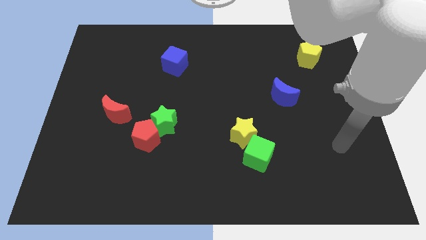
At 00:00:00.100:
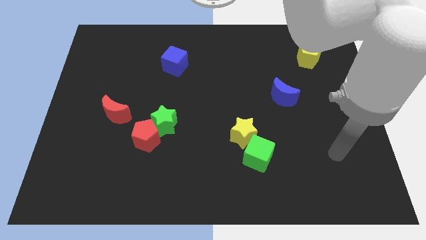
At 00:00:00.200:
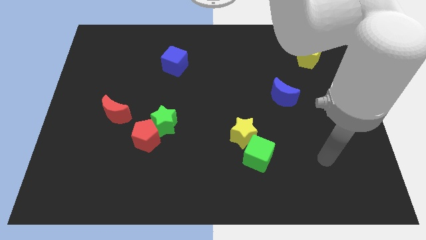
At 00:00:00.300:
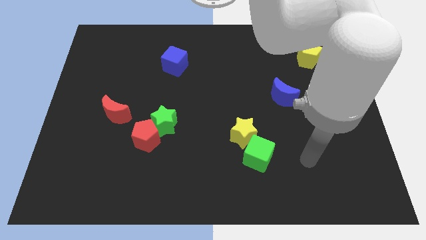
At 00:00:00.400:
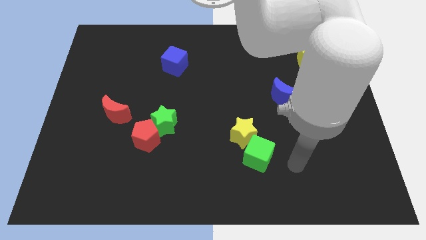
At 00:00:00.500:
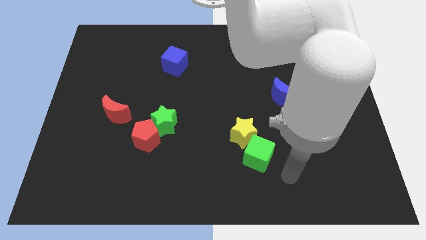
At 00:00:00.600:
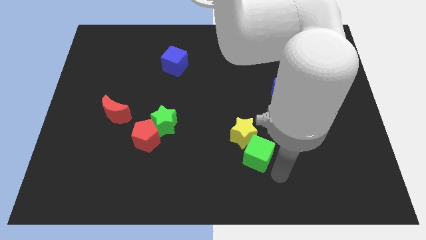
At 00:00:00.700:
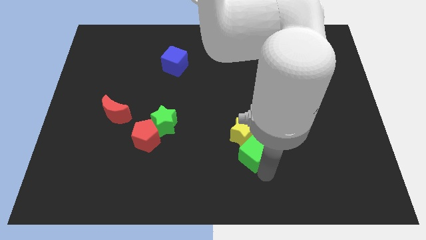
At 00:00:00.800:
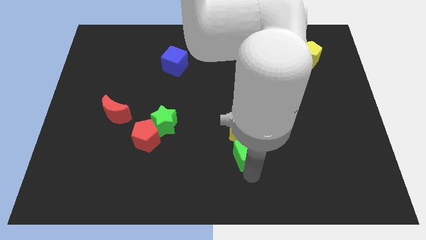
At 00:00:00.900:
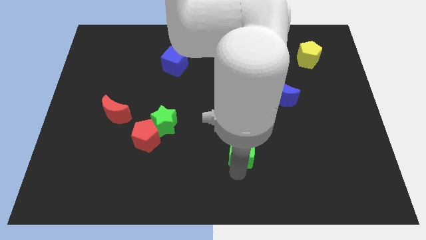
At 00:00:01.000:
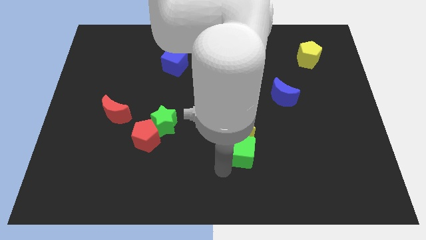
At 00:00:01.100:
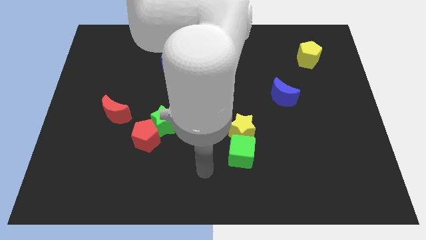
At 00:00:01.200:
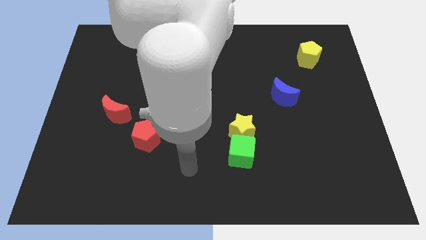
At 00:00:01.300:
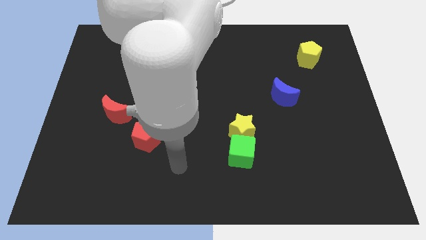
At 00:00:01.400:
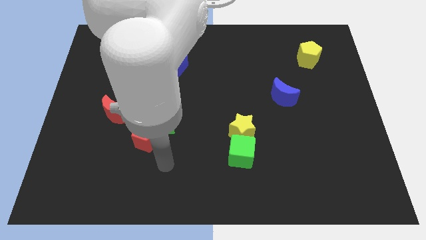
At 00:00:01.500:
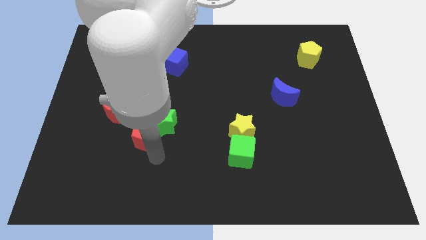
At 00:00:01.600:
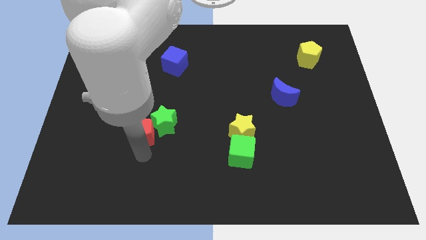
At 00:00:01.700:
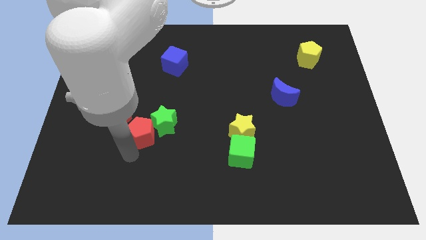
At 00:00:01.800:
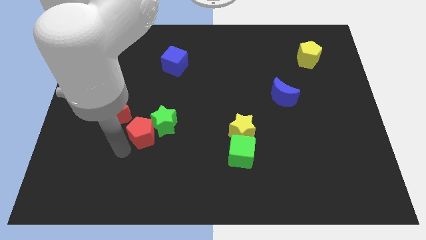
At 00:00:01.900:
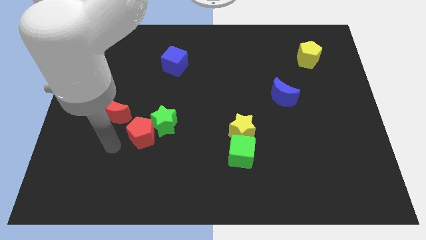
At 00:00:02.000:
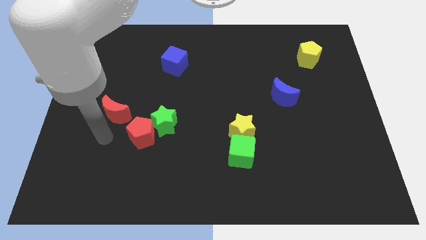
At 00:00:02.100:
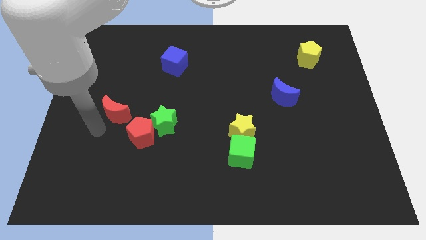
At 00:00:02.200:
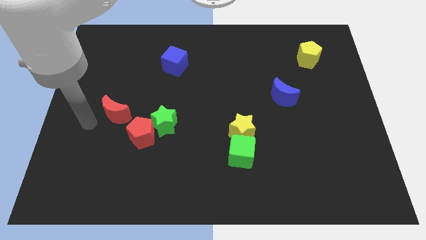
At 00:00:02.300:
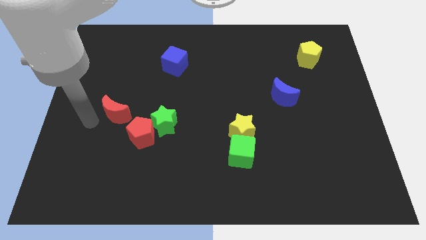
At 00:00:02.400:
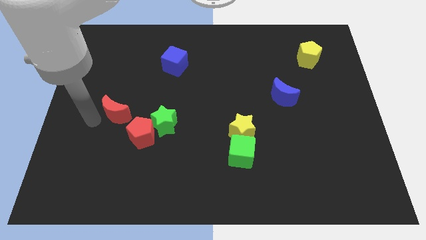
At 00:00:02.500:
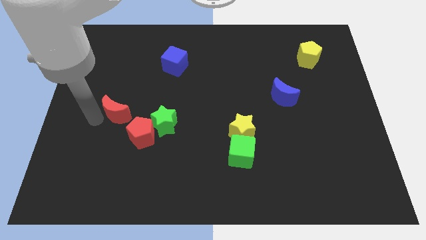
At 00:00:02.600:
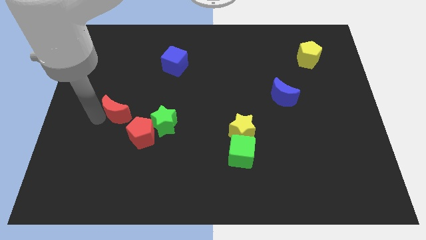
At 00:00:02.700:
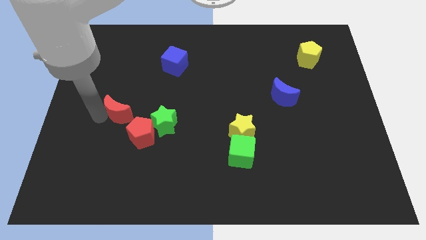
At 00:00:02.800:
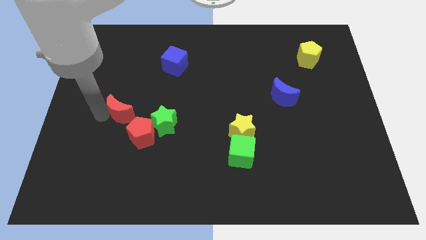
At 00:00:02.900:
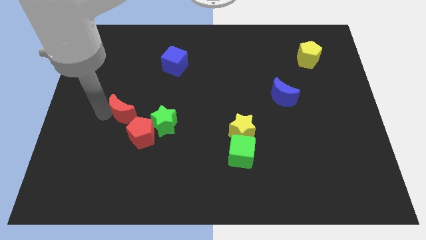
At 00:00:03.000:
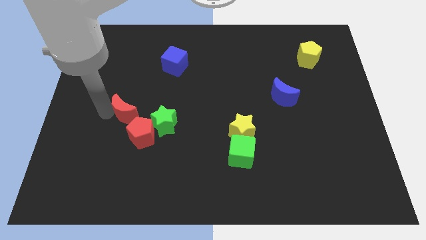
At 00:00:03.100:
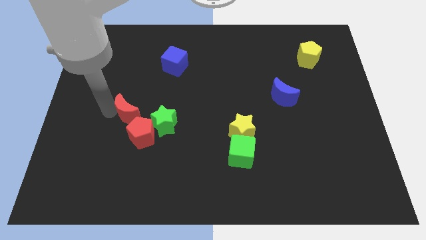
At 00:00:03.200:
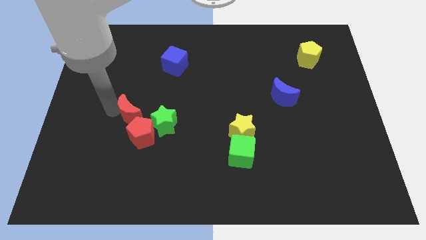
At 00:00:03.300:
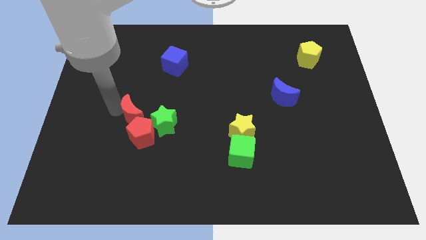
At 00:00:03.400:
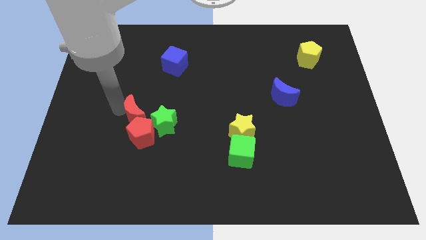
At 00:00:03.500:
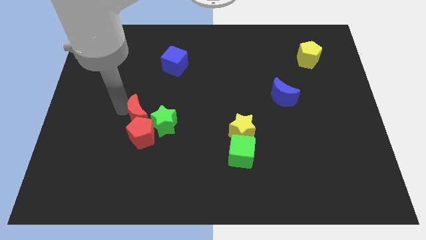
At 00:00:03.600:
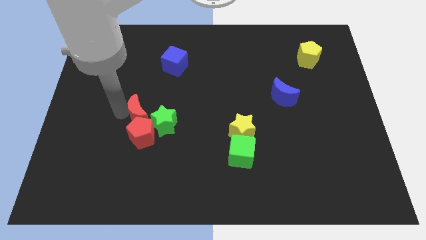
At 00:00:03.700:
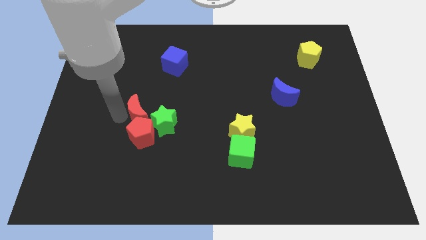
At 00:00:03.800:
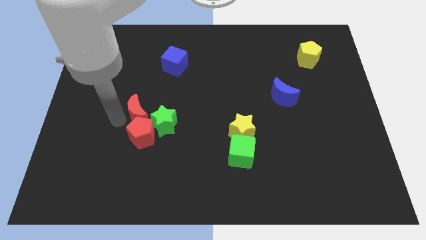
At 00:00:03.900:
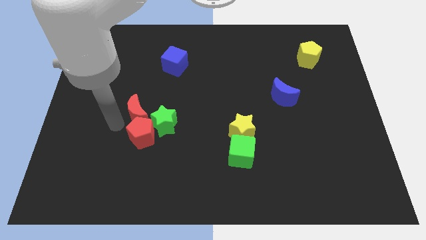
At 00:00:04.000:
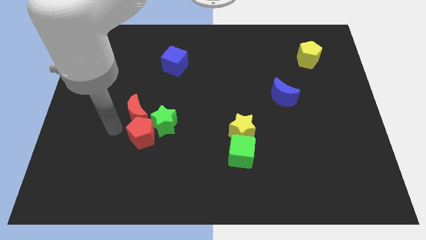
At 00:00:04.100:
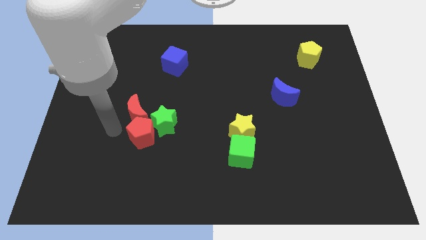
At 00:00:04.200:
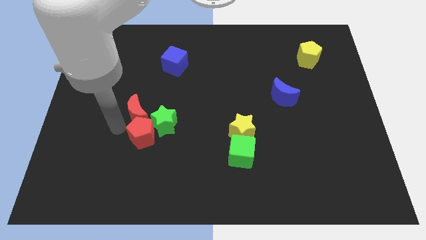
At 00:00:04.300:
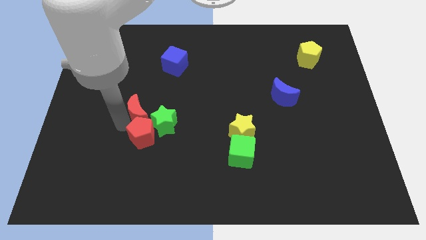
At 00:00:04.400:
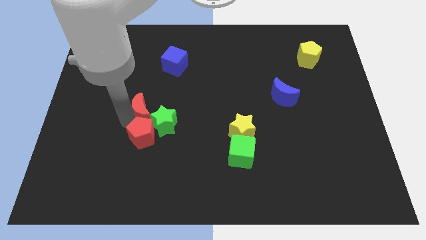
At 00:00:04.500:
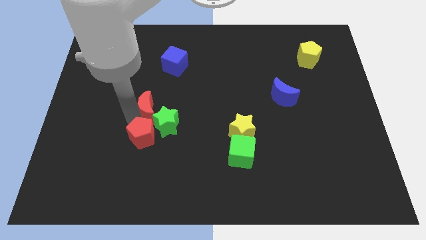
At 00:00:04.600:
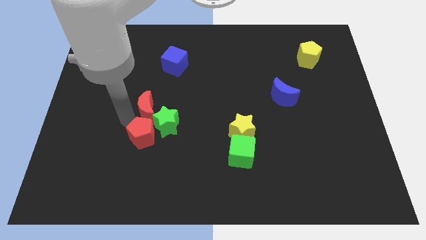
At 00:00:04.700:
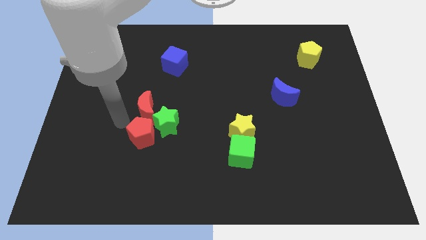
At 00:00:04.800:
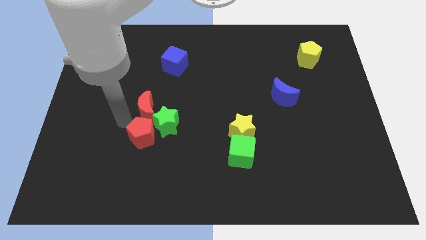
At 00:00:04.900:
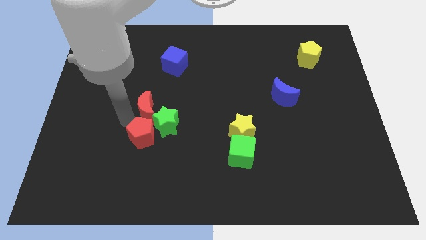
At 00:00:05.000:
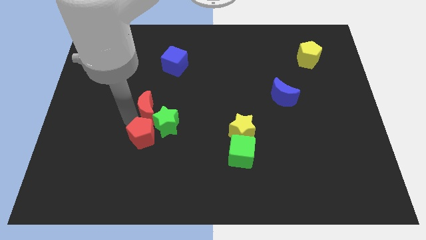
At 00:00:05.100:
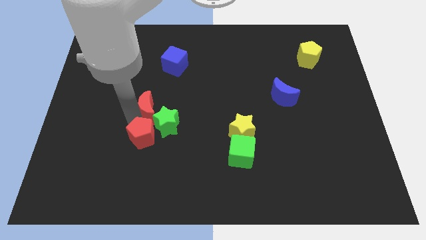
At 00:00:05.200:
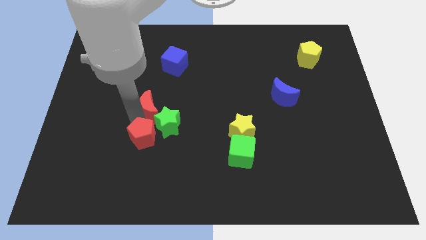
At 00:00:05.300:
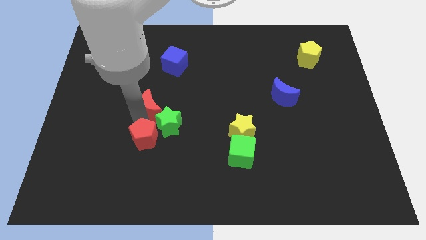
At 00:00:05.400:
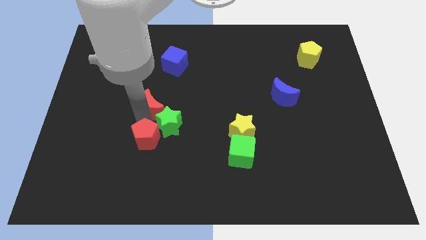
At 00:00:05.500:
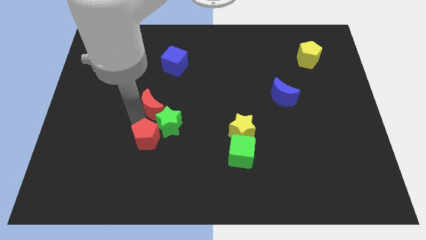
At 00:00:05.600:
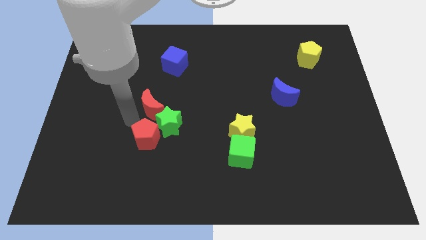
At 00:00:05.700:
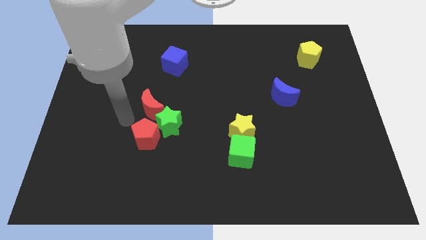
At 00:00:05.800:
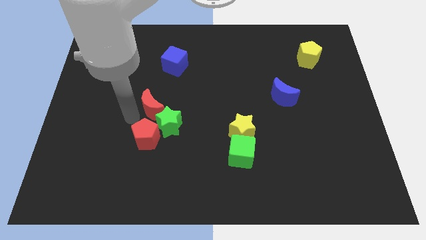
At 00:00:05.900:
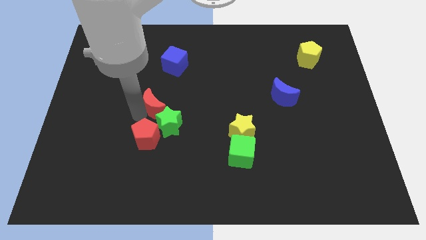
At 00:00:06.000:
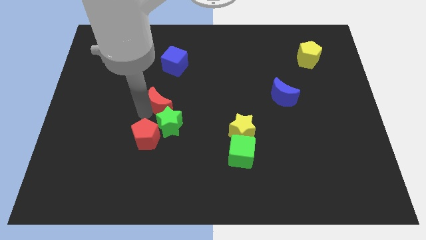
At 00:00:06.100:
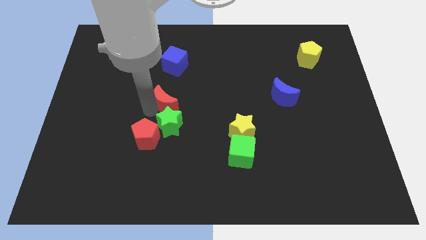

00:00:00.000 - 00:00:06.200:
push the red moon to the center of the board
